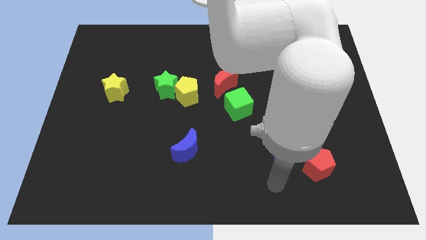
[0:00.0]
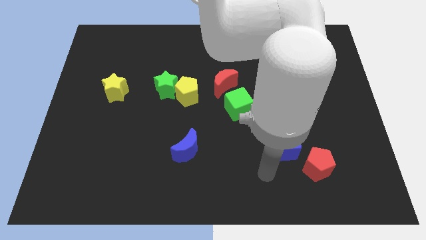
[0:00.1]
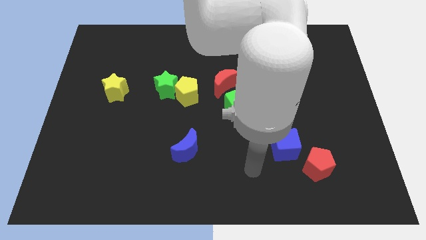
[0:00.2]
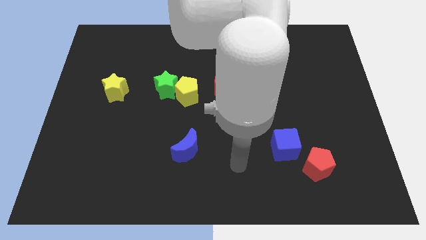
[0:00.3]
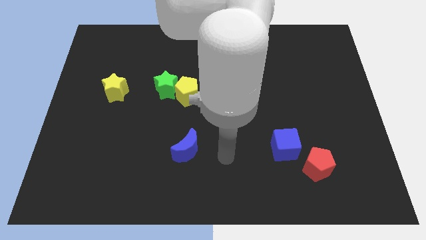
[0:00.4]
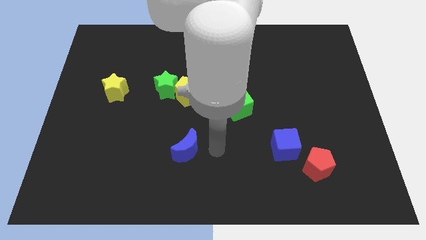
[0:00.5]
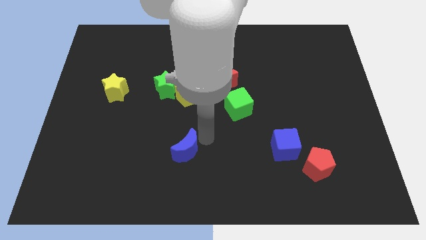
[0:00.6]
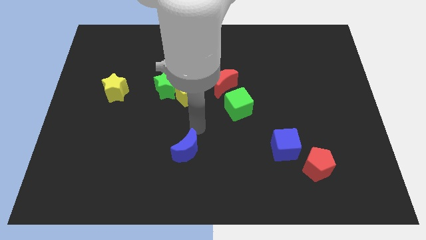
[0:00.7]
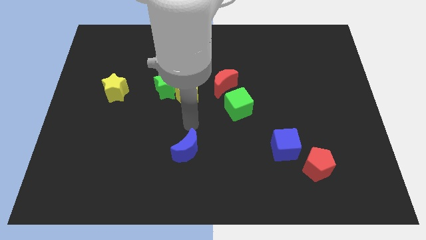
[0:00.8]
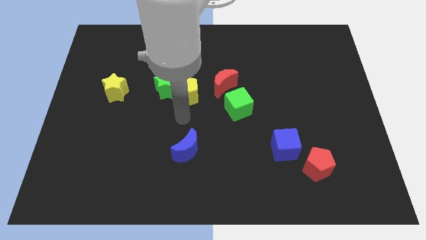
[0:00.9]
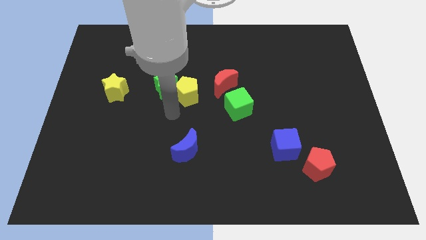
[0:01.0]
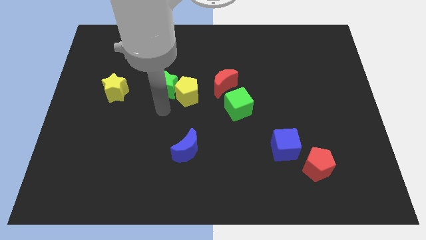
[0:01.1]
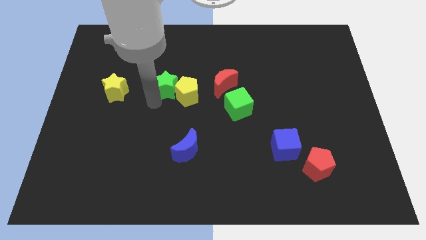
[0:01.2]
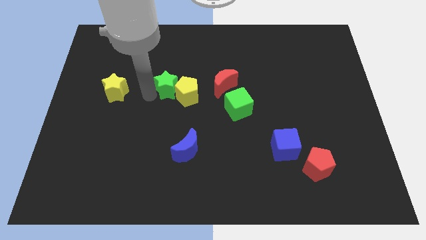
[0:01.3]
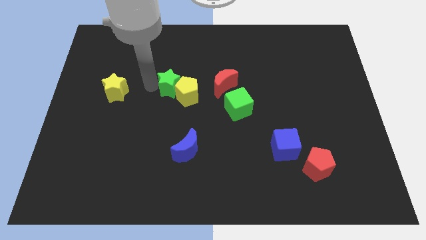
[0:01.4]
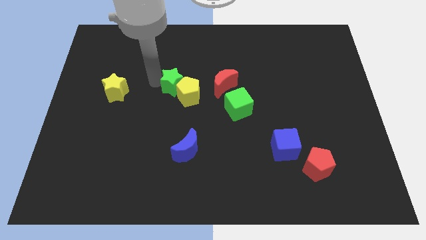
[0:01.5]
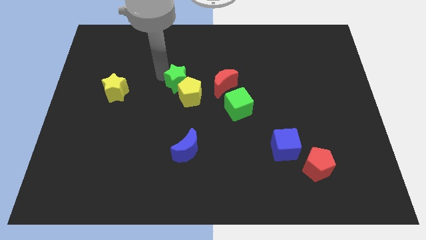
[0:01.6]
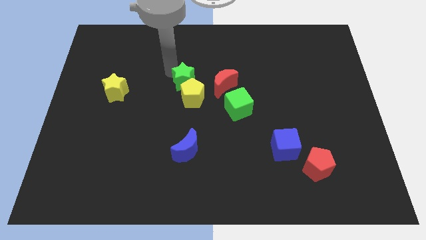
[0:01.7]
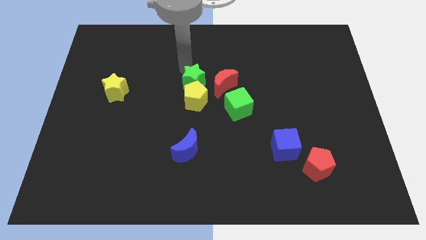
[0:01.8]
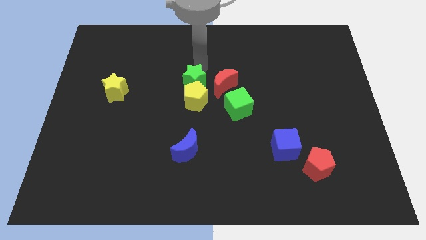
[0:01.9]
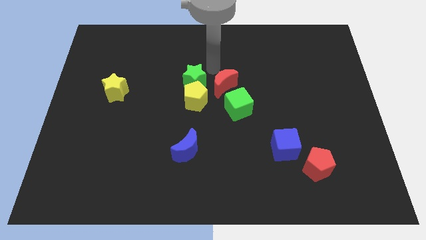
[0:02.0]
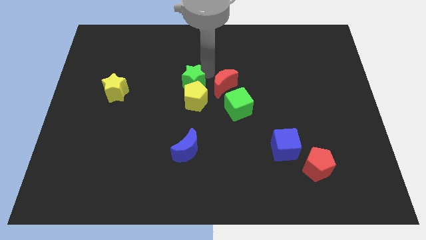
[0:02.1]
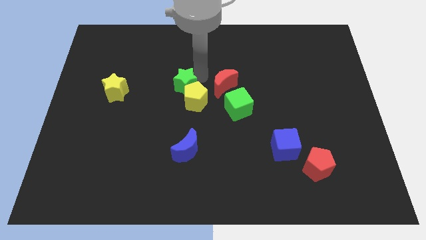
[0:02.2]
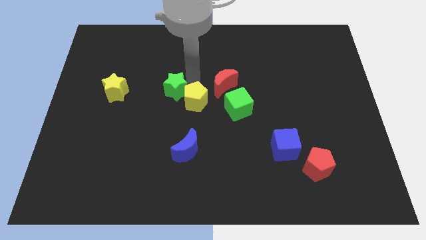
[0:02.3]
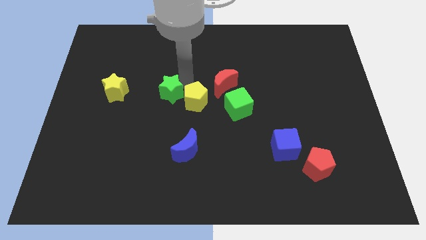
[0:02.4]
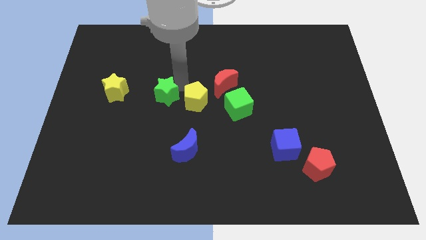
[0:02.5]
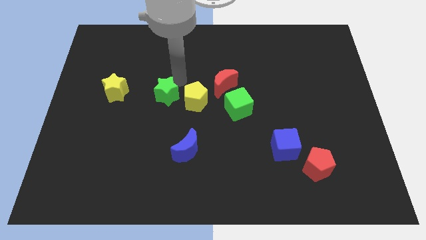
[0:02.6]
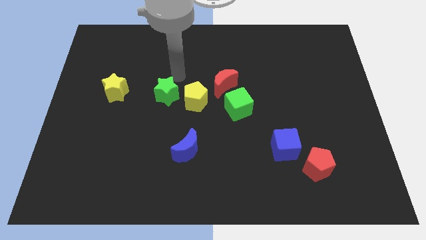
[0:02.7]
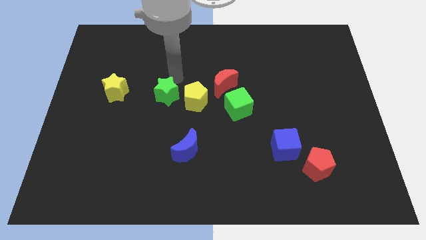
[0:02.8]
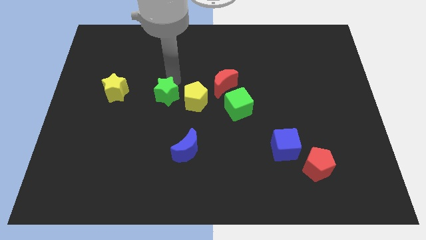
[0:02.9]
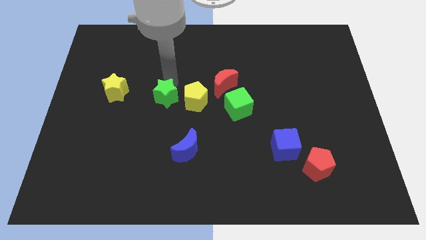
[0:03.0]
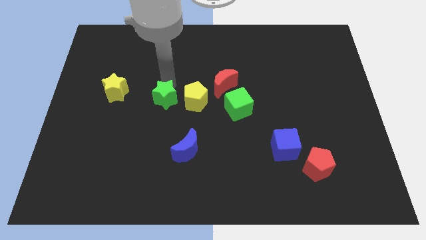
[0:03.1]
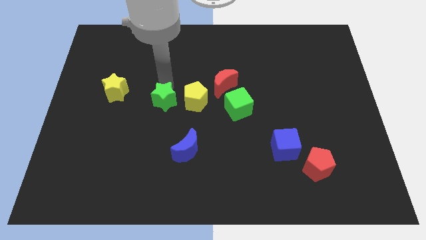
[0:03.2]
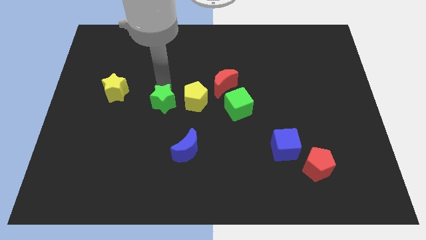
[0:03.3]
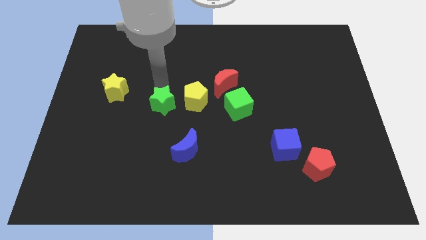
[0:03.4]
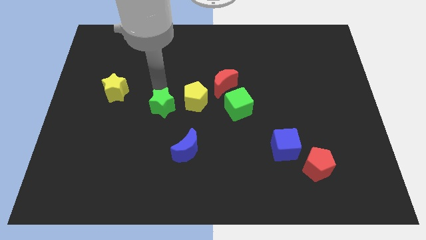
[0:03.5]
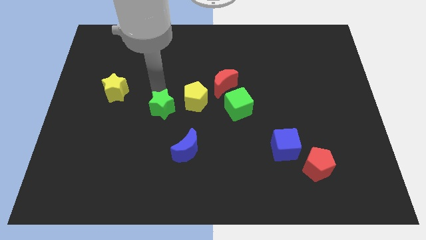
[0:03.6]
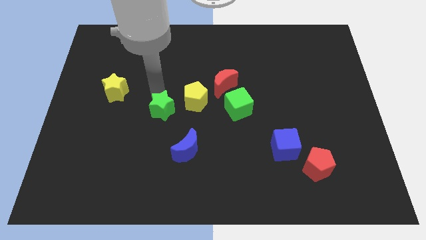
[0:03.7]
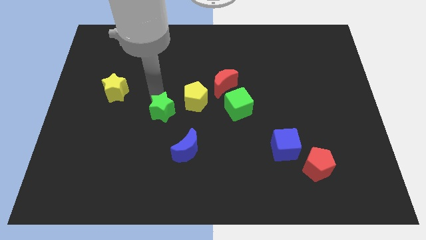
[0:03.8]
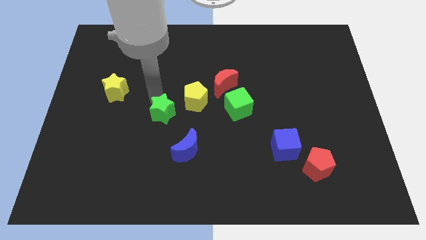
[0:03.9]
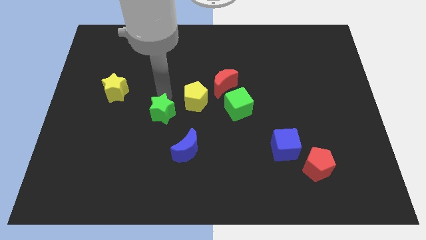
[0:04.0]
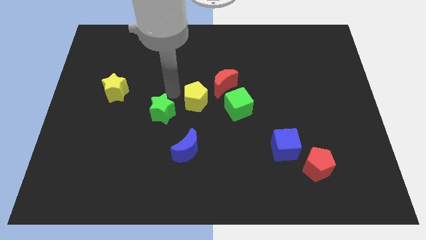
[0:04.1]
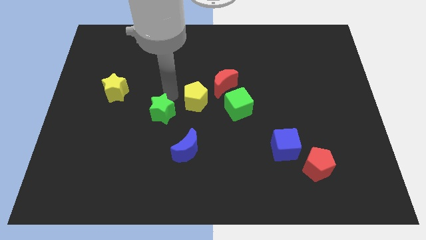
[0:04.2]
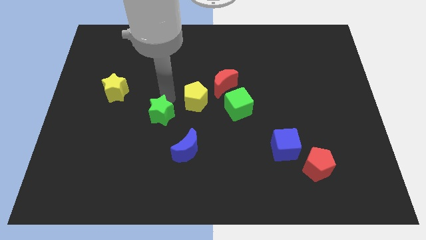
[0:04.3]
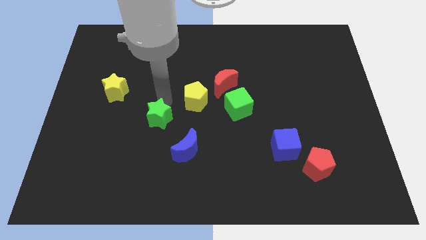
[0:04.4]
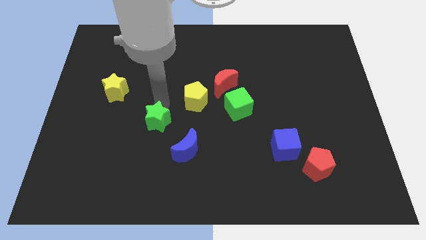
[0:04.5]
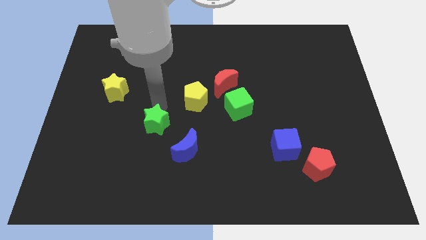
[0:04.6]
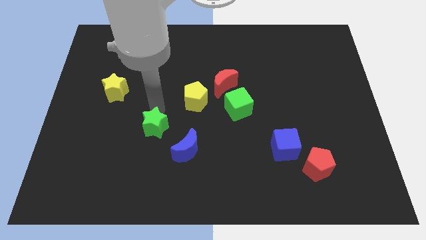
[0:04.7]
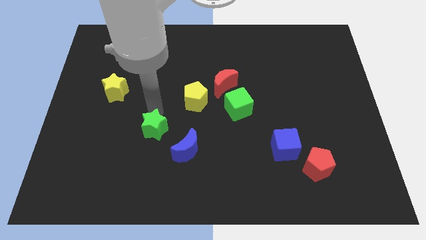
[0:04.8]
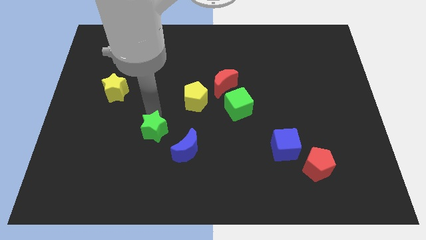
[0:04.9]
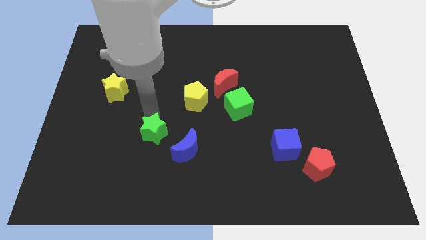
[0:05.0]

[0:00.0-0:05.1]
move the green star just left of the blue moon

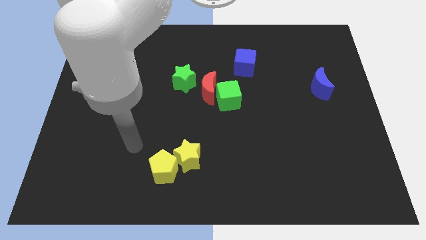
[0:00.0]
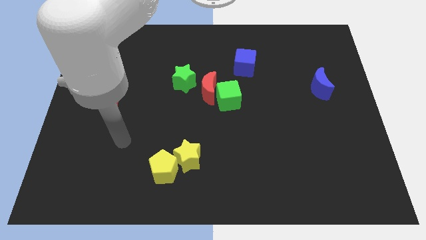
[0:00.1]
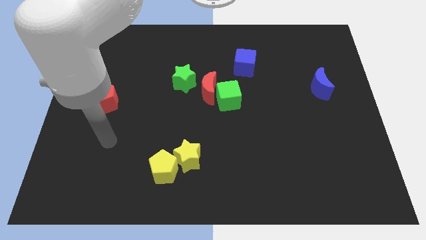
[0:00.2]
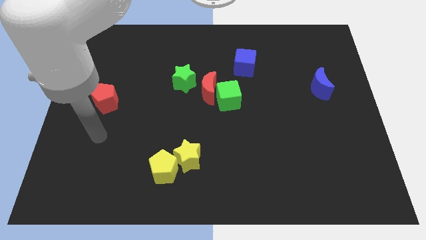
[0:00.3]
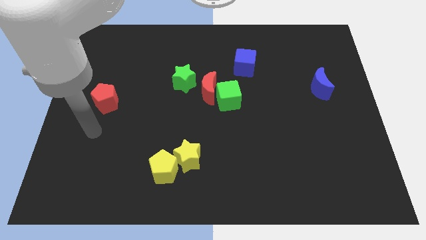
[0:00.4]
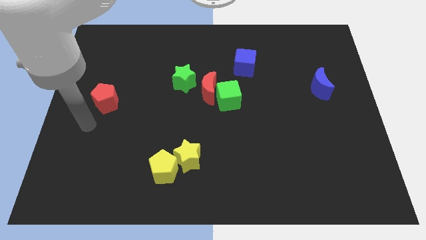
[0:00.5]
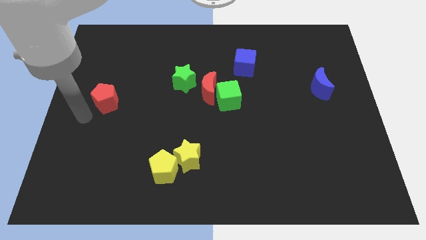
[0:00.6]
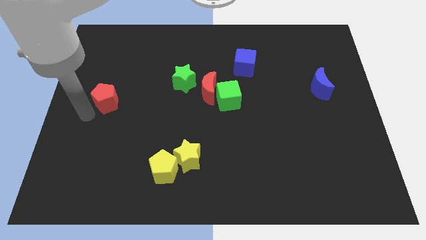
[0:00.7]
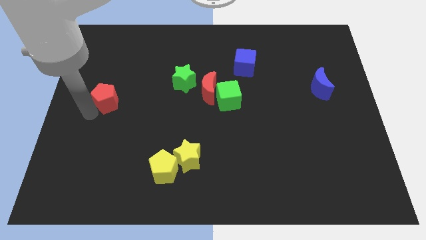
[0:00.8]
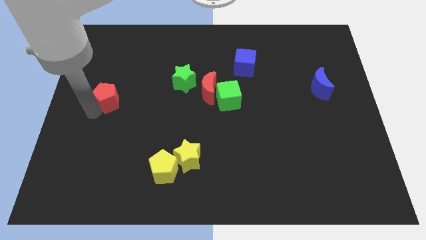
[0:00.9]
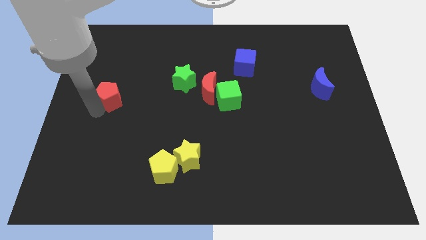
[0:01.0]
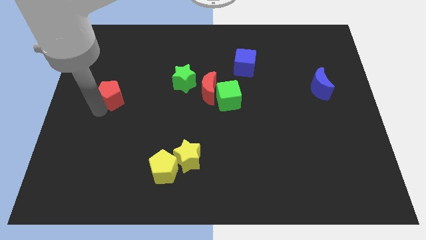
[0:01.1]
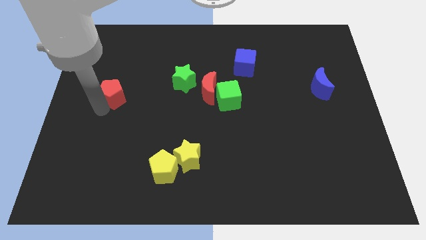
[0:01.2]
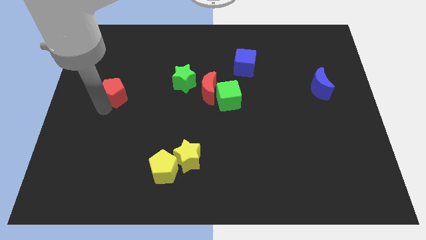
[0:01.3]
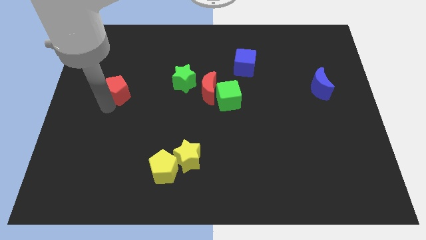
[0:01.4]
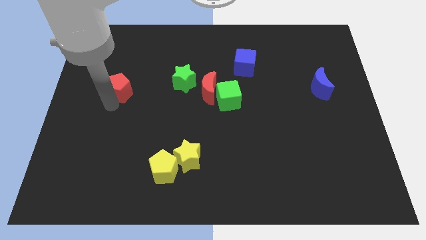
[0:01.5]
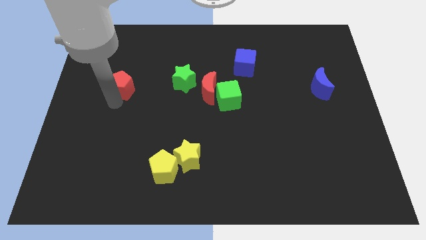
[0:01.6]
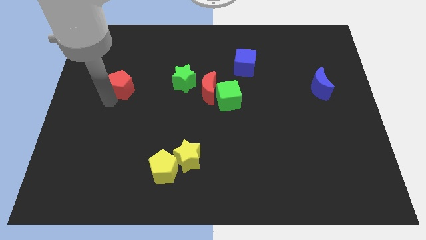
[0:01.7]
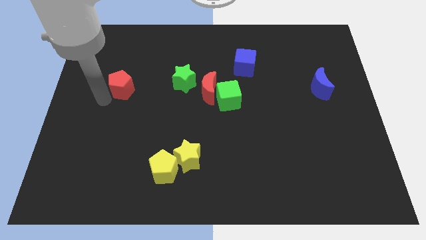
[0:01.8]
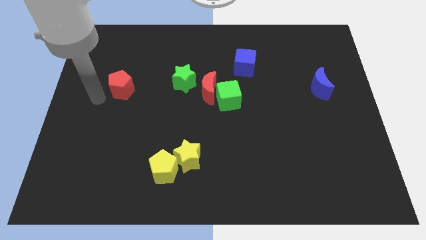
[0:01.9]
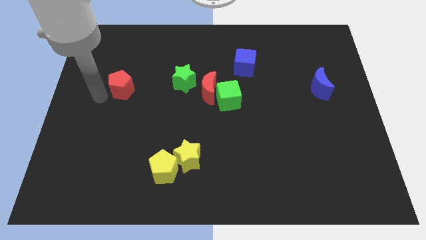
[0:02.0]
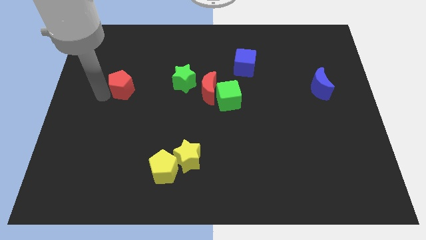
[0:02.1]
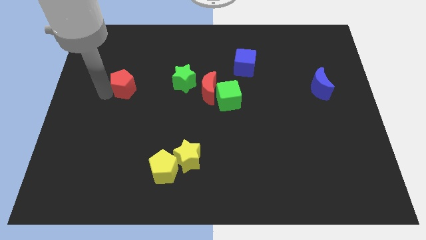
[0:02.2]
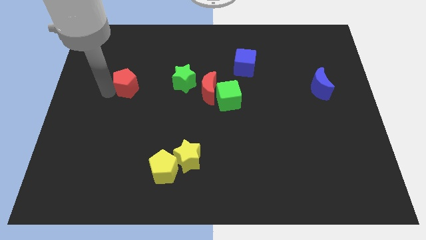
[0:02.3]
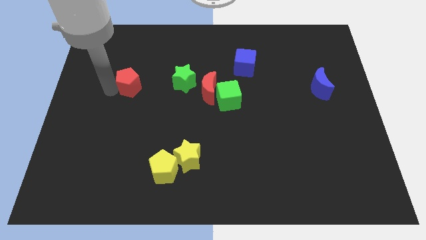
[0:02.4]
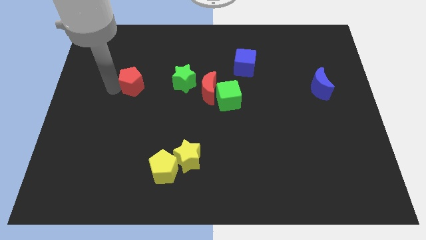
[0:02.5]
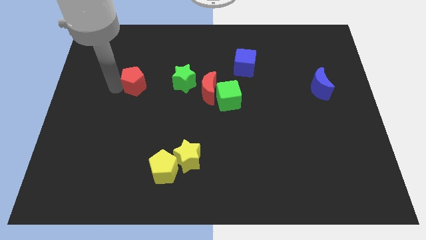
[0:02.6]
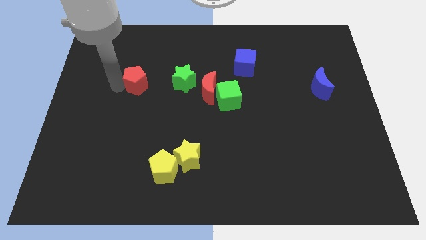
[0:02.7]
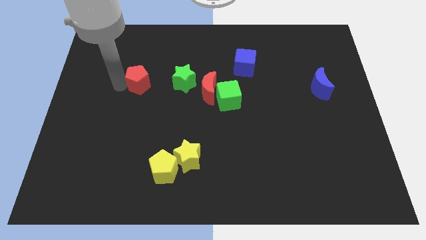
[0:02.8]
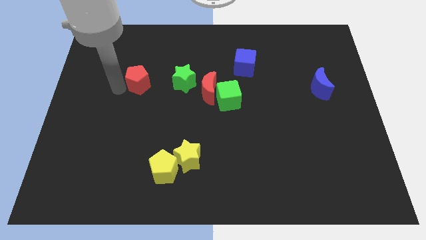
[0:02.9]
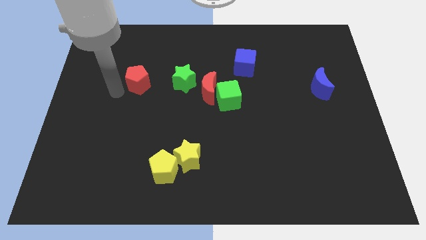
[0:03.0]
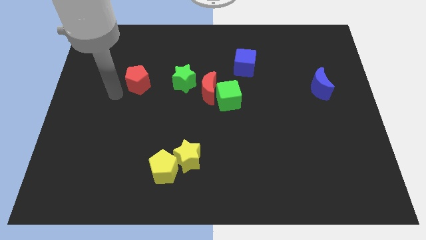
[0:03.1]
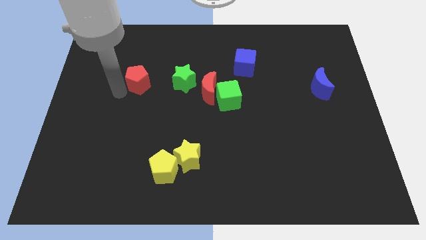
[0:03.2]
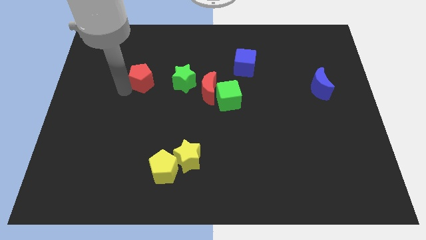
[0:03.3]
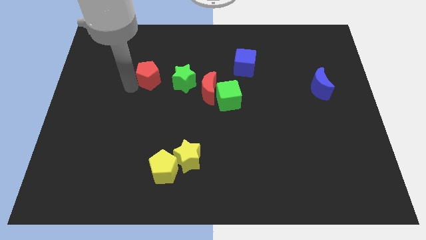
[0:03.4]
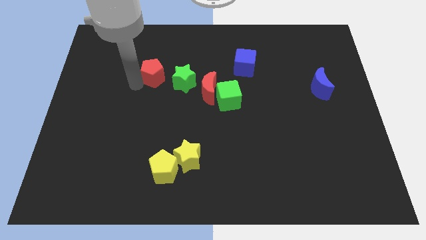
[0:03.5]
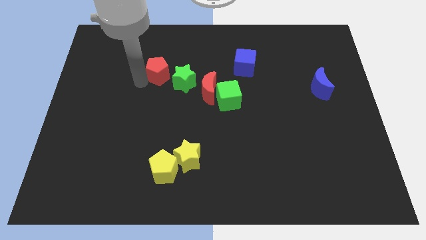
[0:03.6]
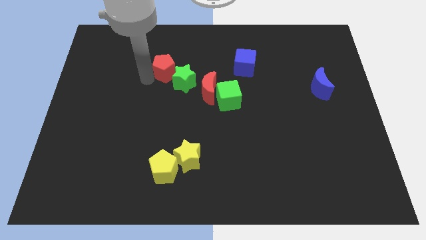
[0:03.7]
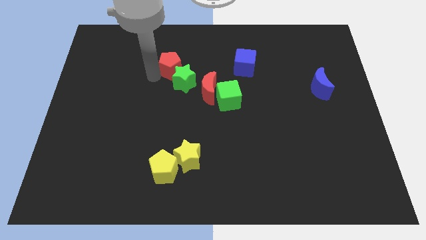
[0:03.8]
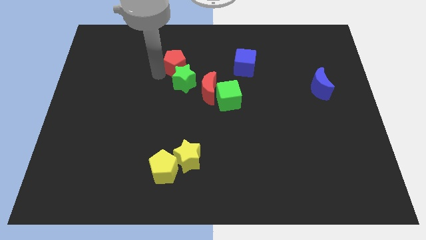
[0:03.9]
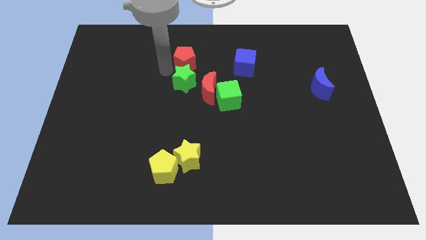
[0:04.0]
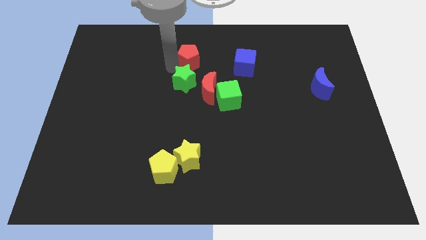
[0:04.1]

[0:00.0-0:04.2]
move the red pentagon to the top of the red moon
